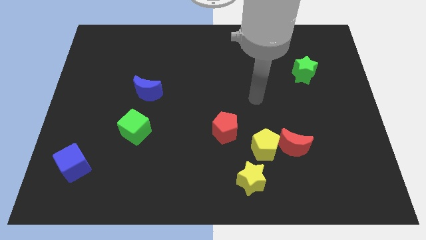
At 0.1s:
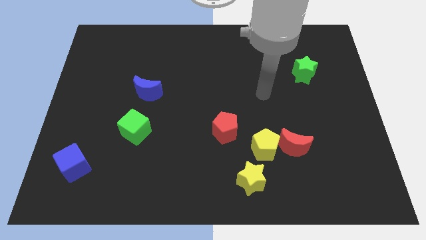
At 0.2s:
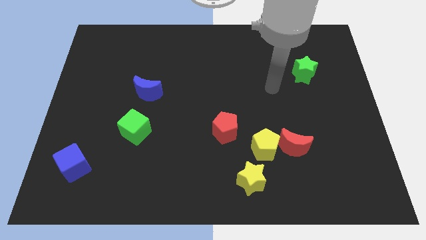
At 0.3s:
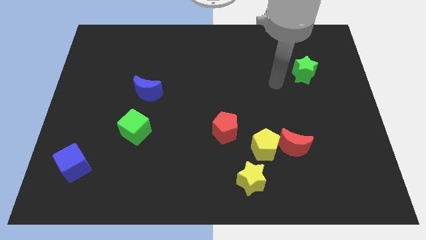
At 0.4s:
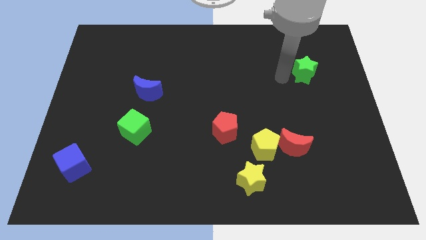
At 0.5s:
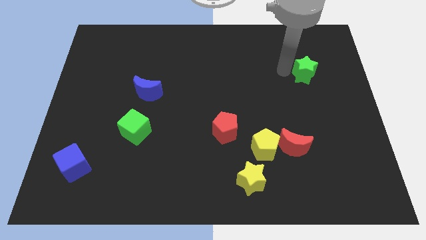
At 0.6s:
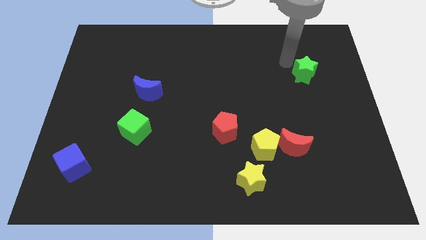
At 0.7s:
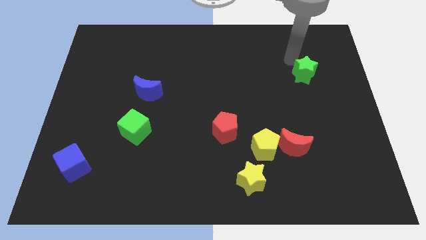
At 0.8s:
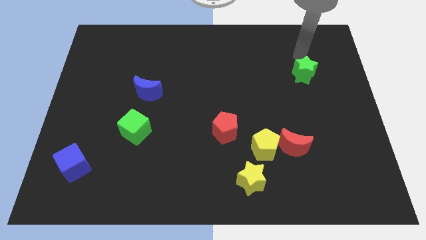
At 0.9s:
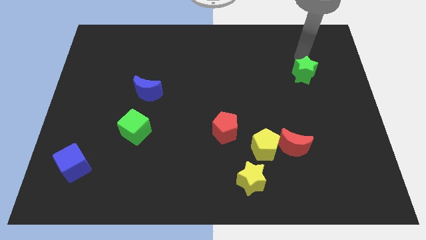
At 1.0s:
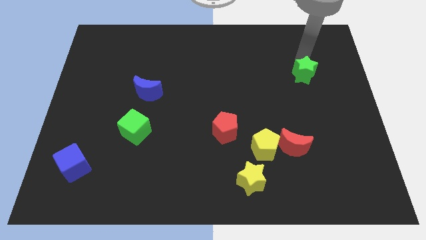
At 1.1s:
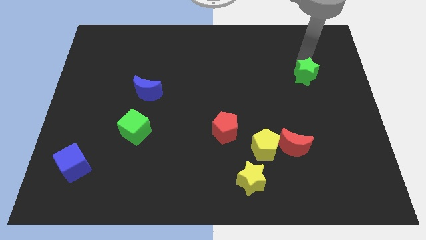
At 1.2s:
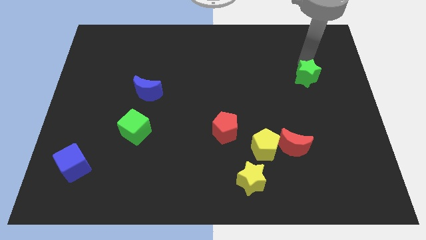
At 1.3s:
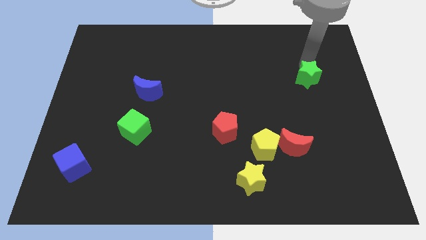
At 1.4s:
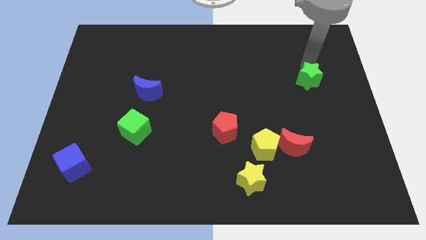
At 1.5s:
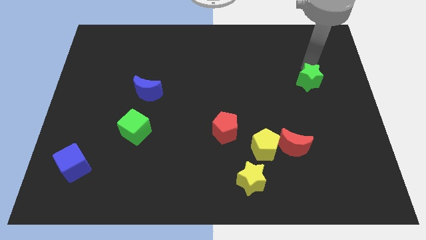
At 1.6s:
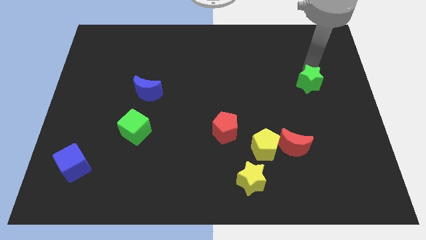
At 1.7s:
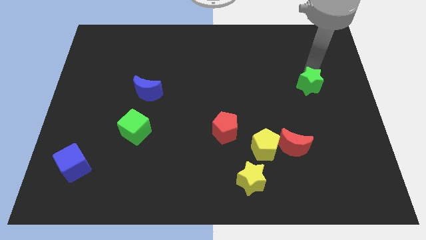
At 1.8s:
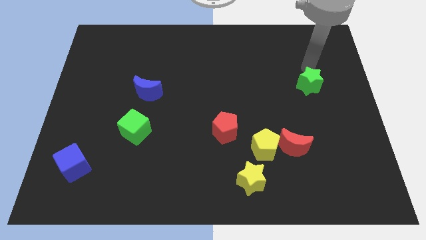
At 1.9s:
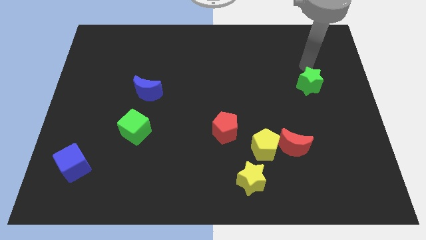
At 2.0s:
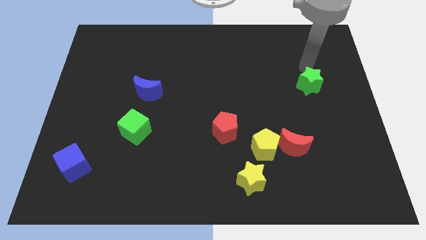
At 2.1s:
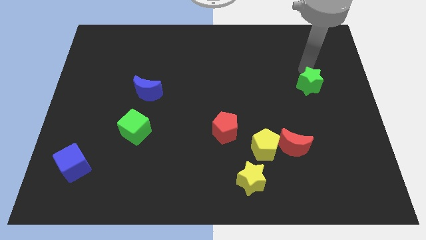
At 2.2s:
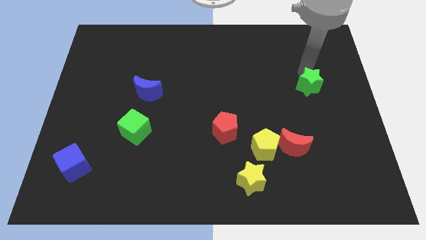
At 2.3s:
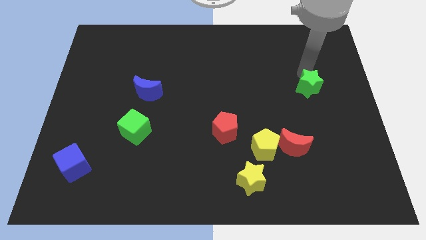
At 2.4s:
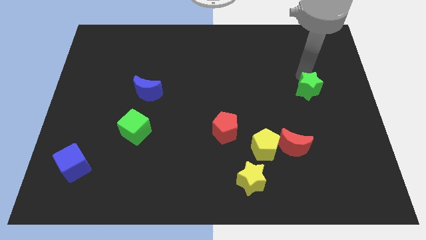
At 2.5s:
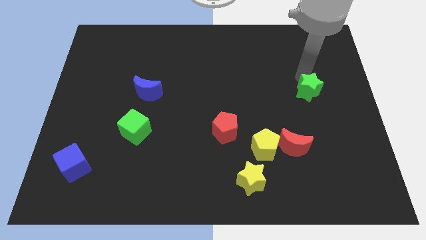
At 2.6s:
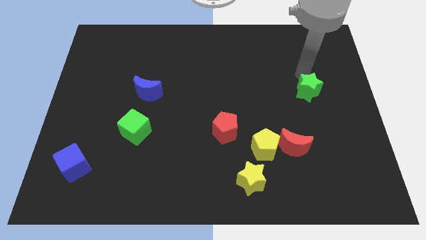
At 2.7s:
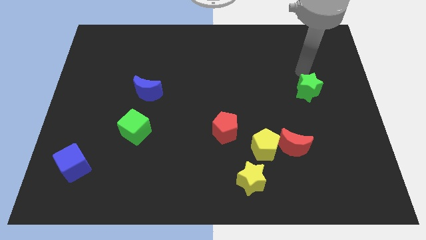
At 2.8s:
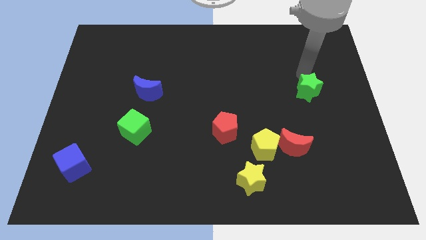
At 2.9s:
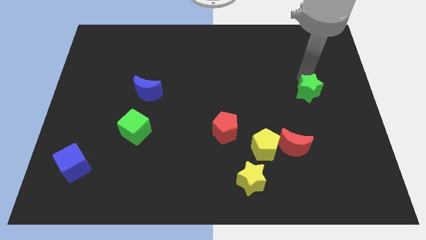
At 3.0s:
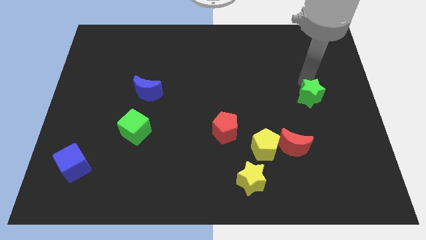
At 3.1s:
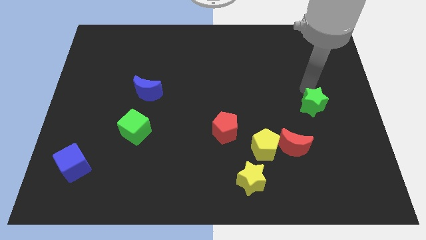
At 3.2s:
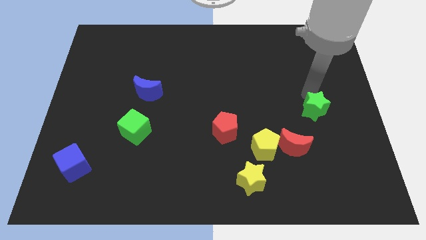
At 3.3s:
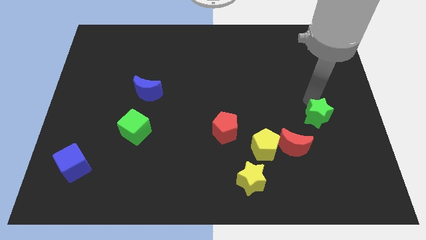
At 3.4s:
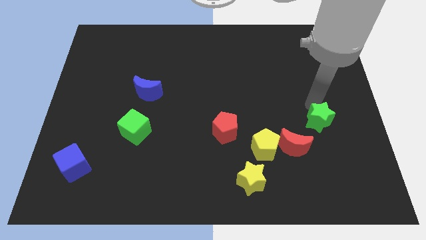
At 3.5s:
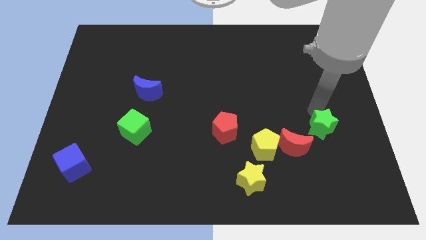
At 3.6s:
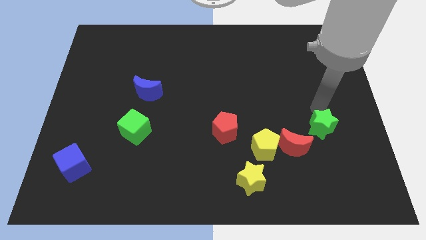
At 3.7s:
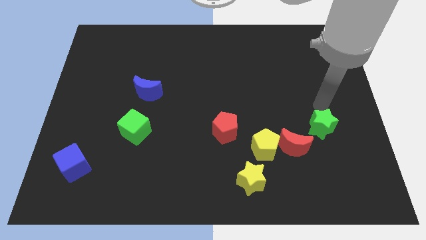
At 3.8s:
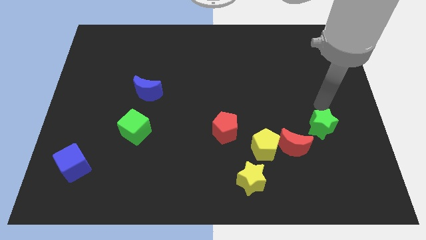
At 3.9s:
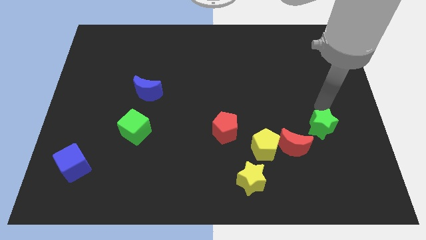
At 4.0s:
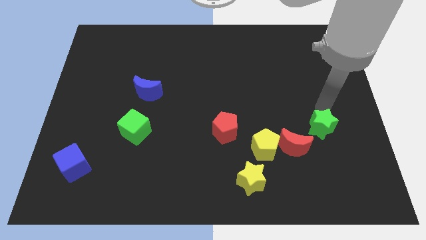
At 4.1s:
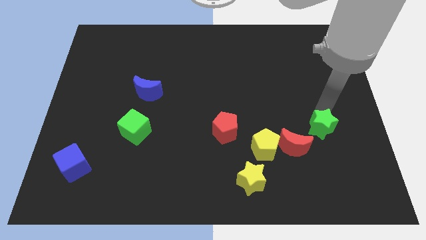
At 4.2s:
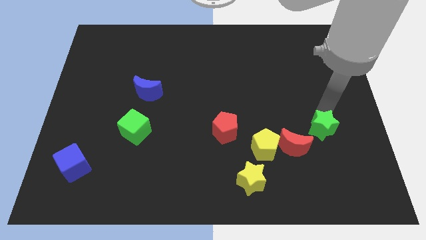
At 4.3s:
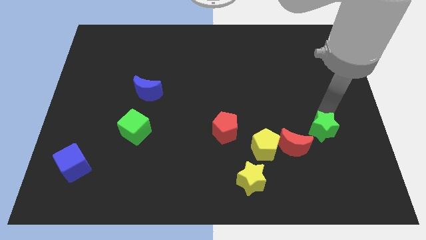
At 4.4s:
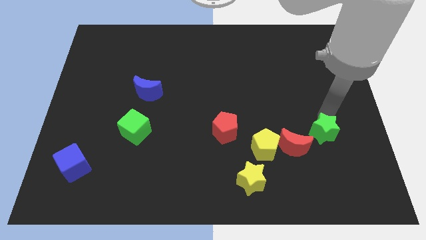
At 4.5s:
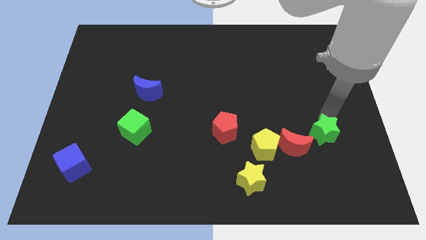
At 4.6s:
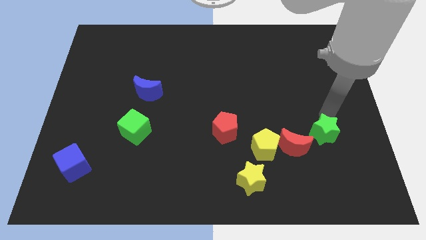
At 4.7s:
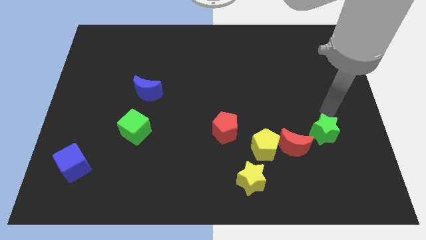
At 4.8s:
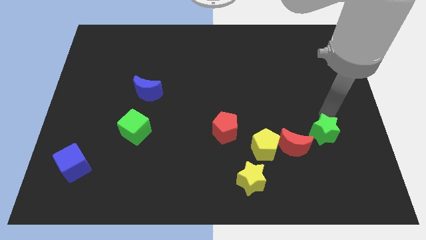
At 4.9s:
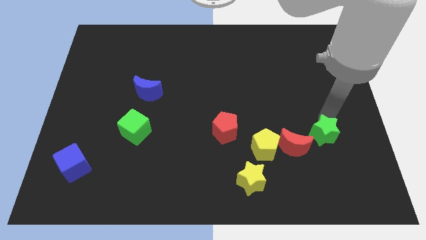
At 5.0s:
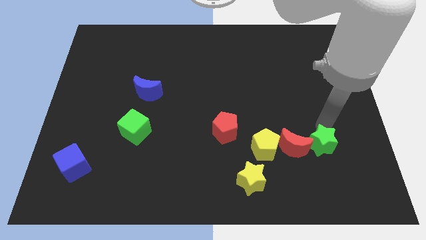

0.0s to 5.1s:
push the green star to the bottom right side of the red moon

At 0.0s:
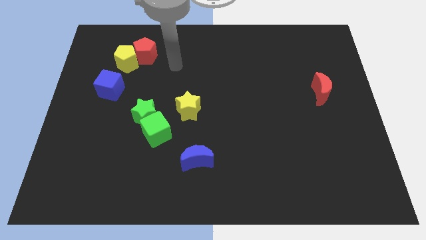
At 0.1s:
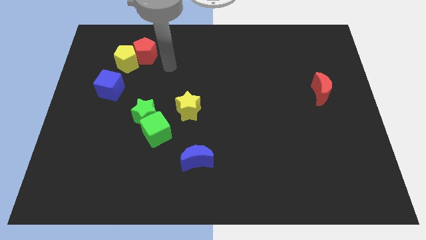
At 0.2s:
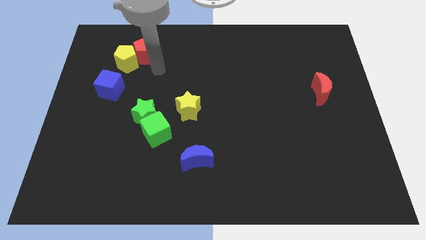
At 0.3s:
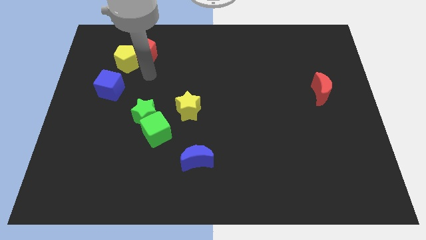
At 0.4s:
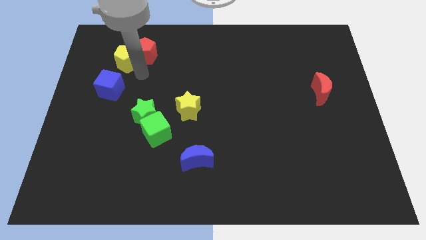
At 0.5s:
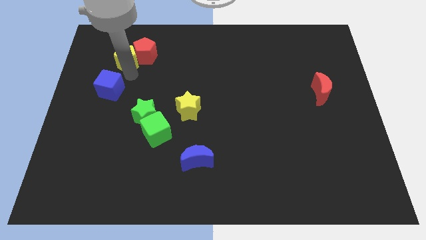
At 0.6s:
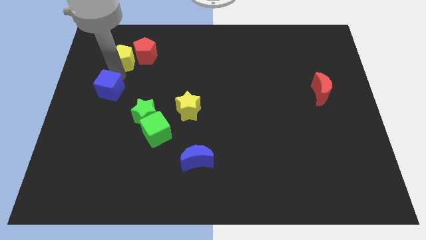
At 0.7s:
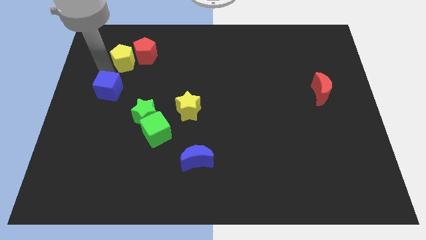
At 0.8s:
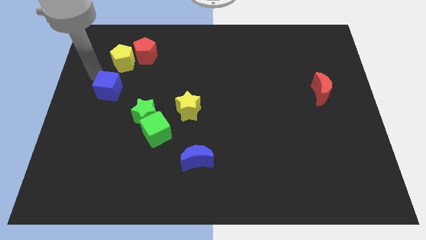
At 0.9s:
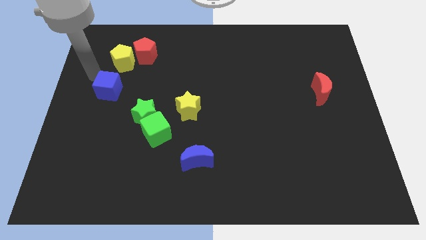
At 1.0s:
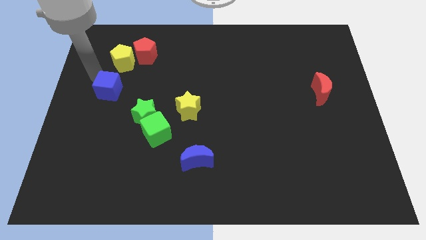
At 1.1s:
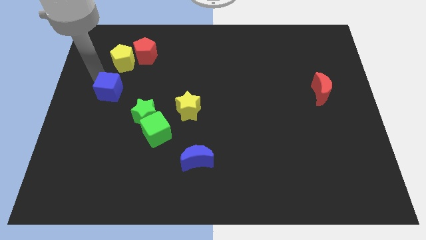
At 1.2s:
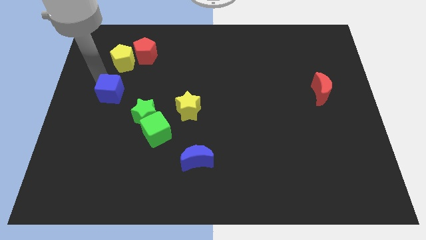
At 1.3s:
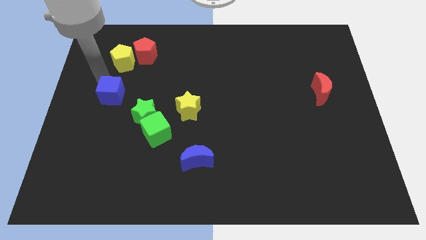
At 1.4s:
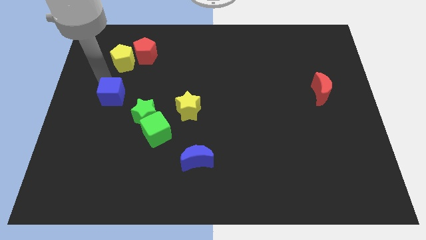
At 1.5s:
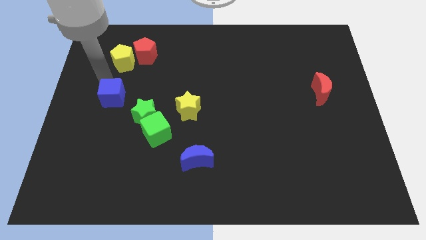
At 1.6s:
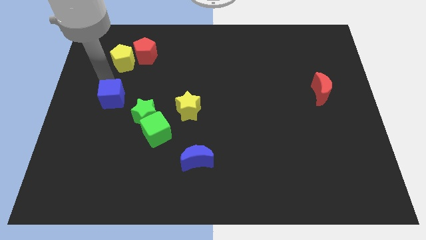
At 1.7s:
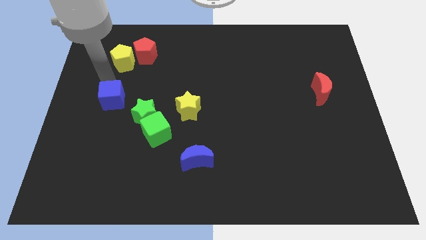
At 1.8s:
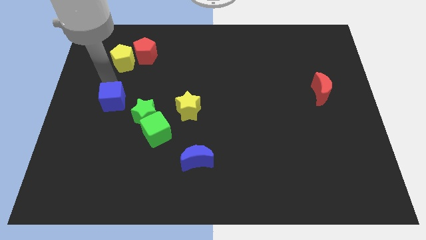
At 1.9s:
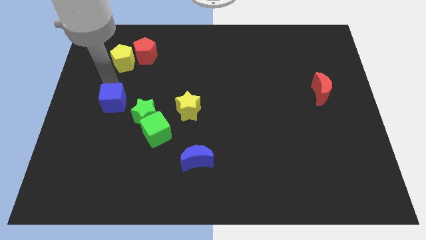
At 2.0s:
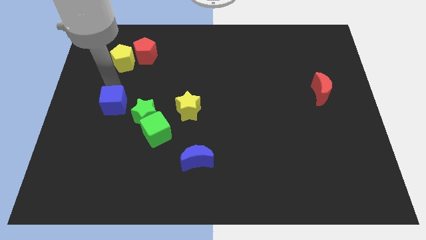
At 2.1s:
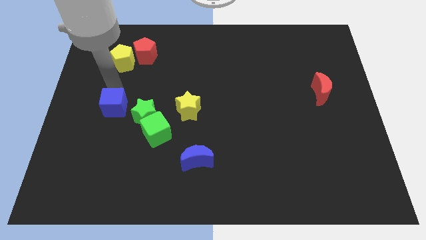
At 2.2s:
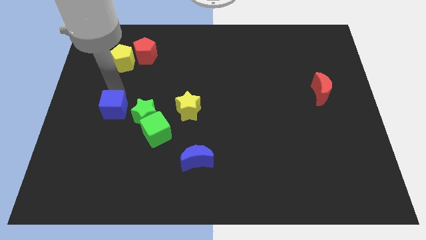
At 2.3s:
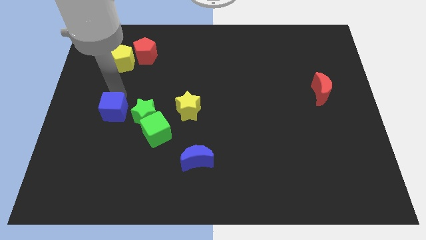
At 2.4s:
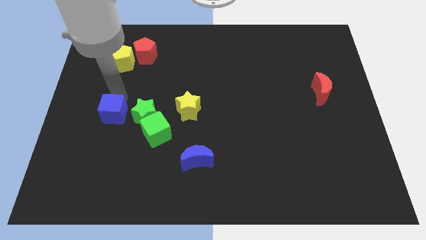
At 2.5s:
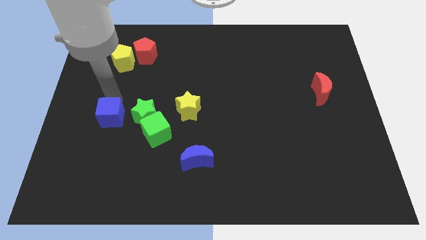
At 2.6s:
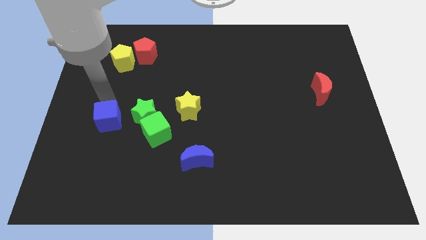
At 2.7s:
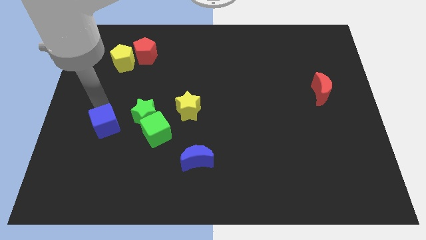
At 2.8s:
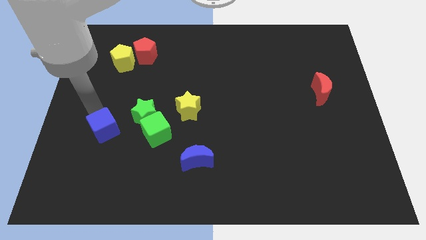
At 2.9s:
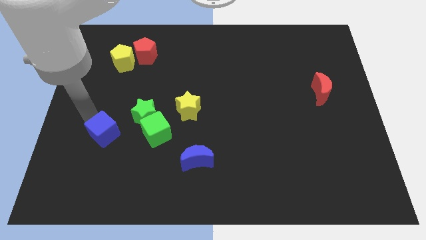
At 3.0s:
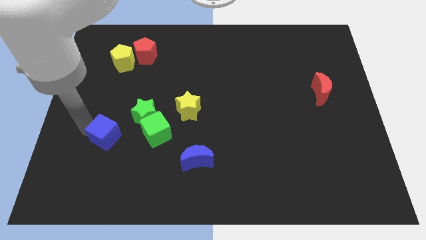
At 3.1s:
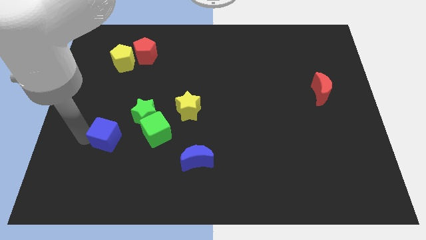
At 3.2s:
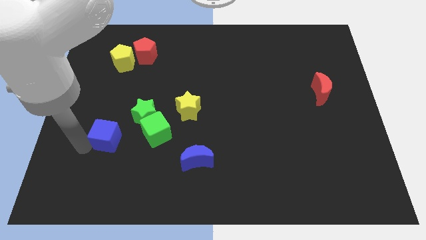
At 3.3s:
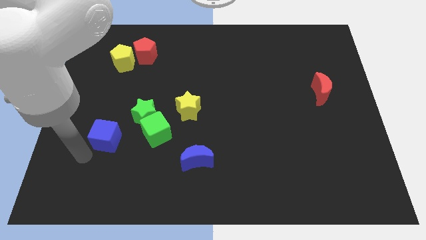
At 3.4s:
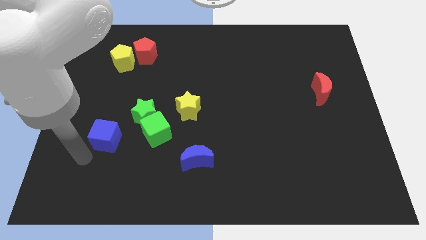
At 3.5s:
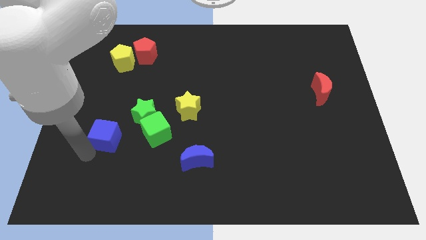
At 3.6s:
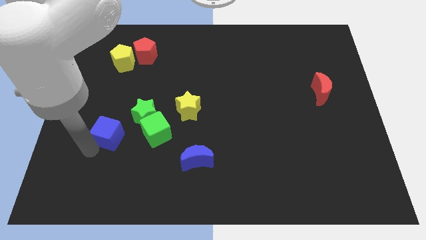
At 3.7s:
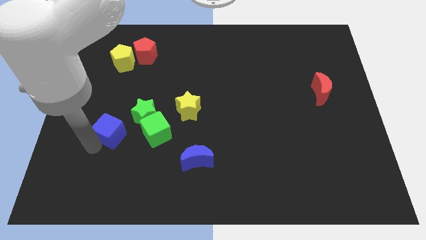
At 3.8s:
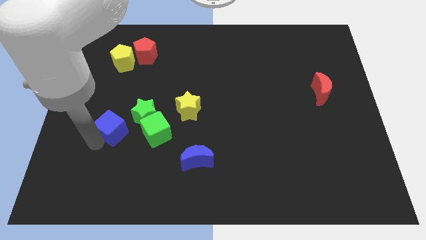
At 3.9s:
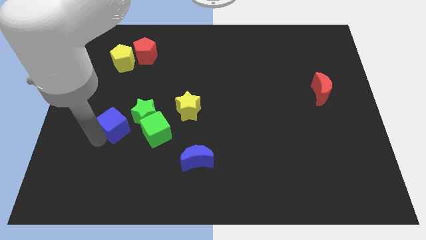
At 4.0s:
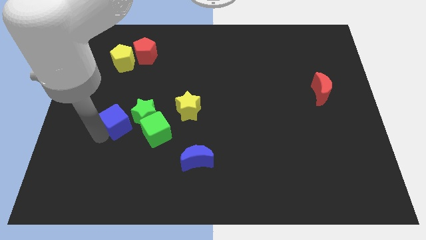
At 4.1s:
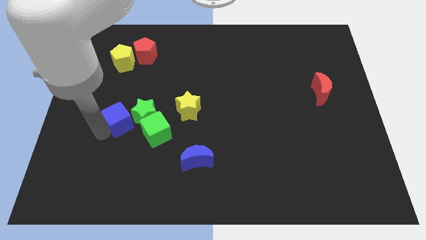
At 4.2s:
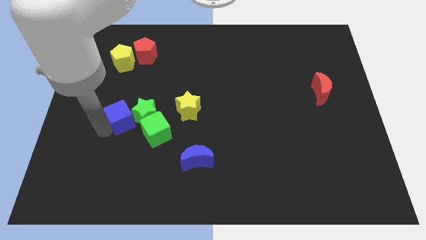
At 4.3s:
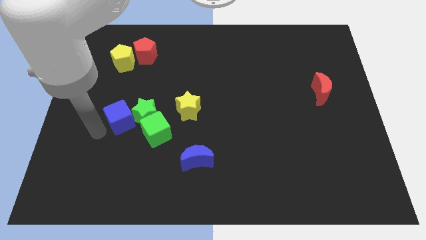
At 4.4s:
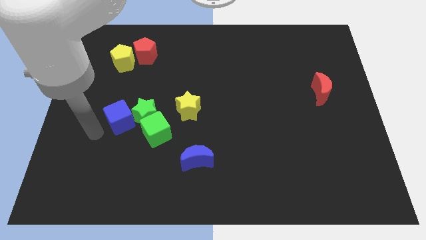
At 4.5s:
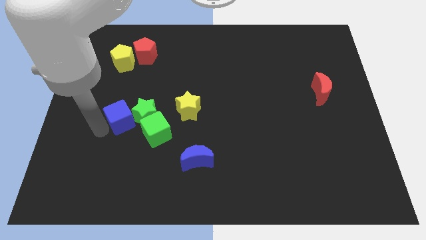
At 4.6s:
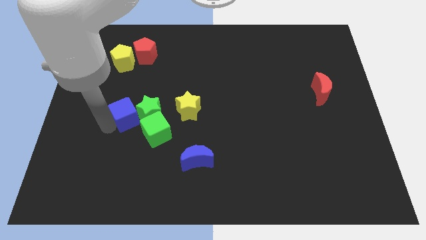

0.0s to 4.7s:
move the blue cube just left of the yellow star
